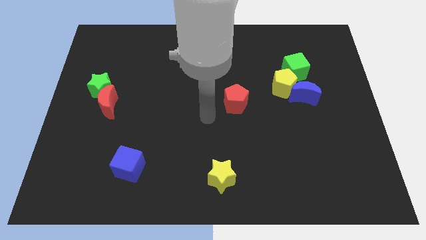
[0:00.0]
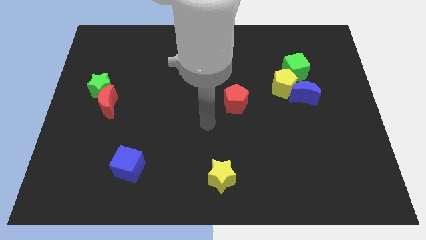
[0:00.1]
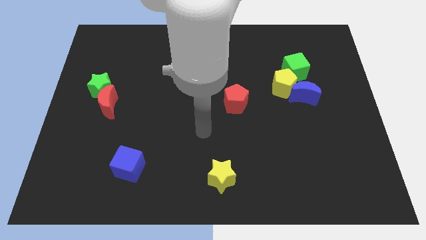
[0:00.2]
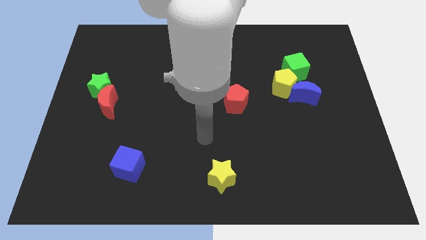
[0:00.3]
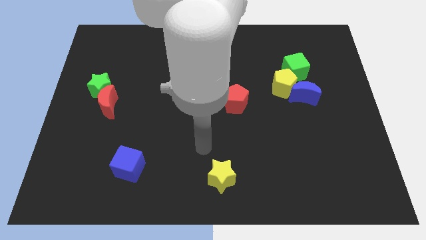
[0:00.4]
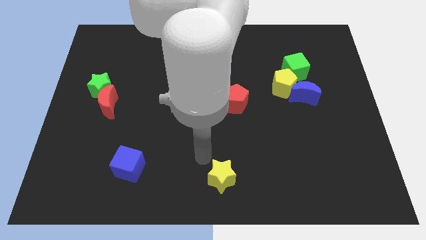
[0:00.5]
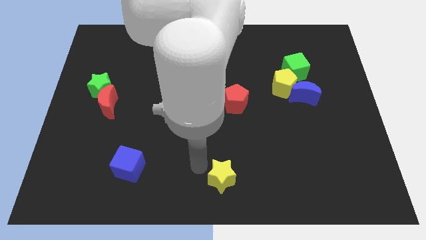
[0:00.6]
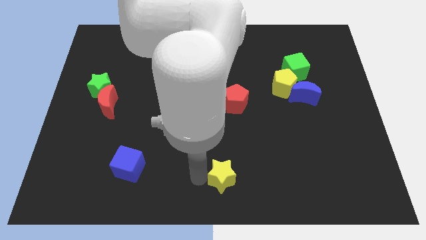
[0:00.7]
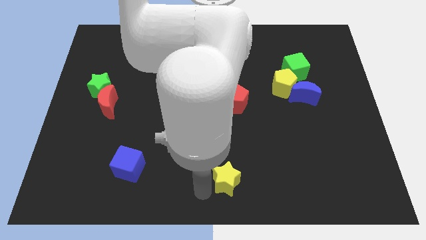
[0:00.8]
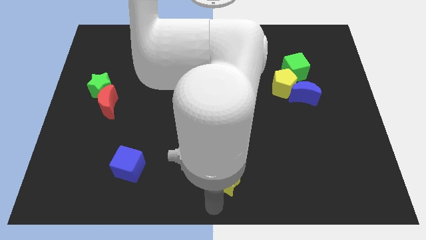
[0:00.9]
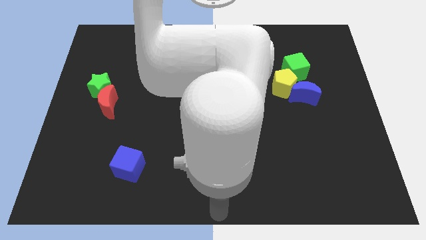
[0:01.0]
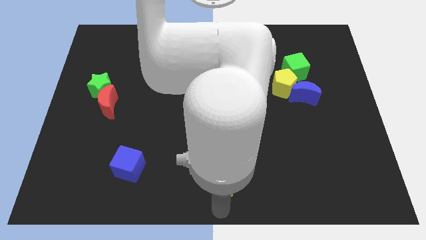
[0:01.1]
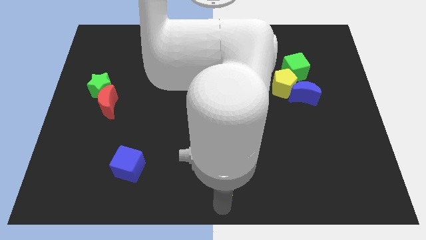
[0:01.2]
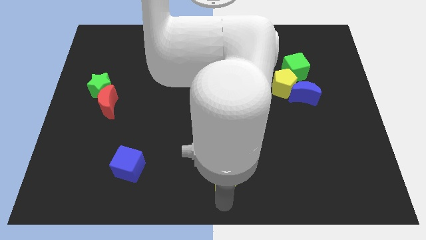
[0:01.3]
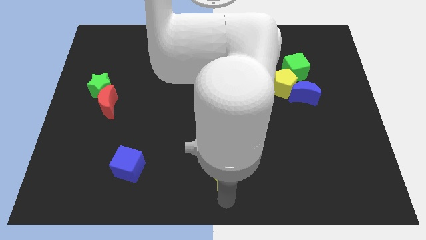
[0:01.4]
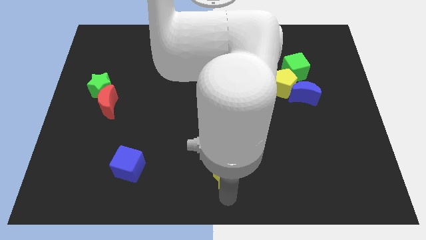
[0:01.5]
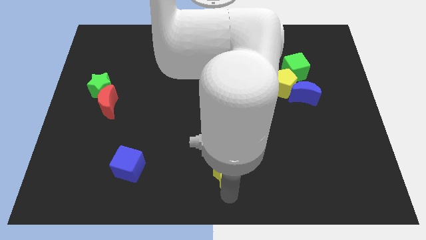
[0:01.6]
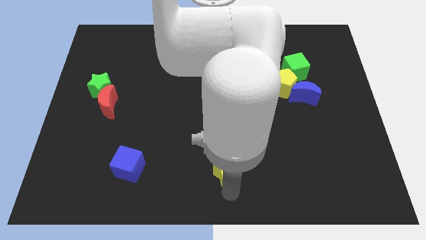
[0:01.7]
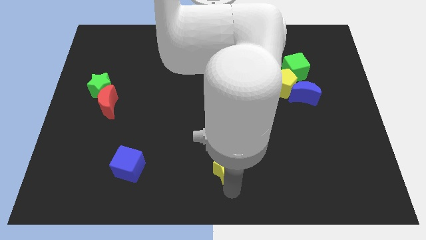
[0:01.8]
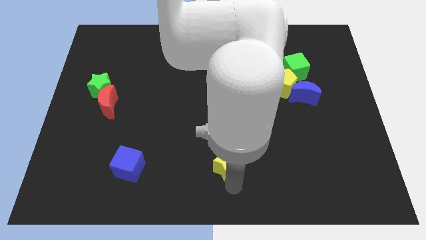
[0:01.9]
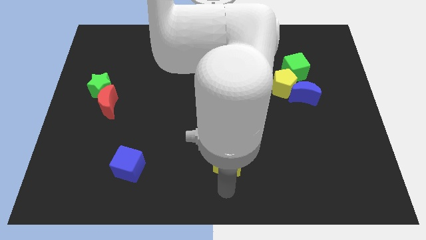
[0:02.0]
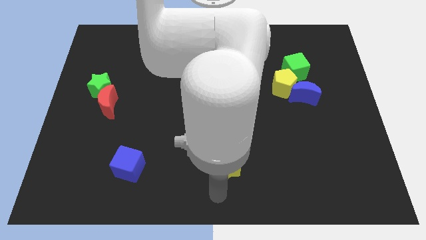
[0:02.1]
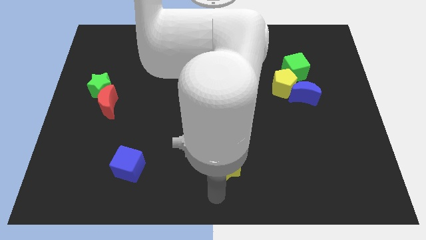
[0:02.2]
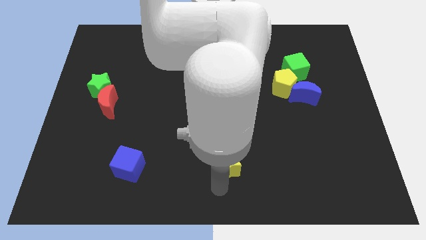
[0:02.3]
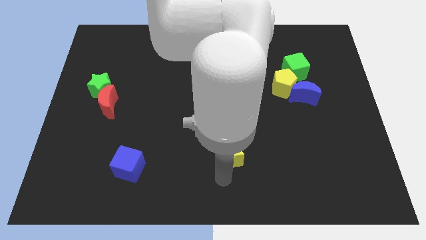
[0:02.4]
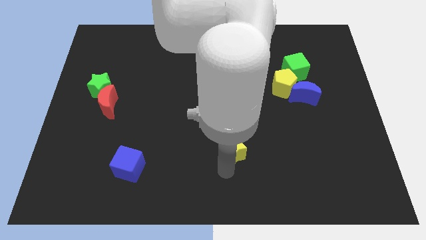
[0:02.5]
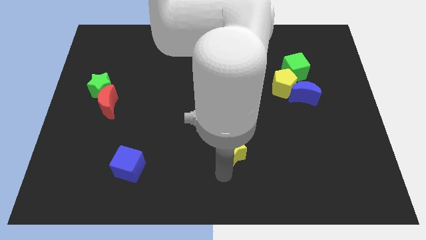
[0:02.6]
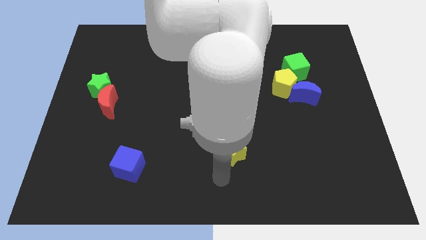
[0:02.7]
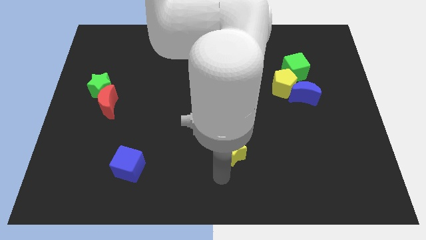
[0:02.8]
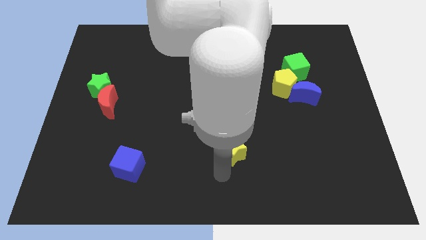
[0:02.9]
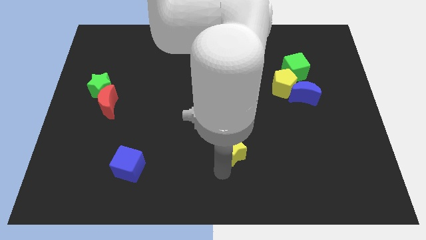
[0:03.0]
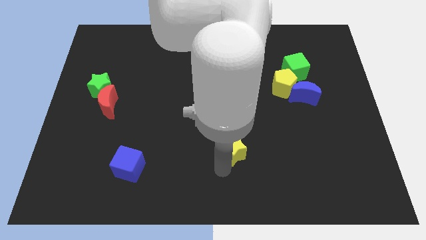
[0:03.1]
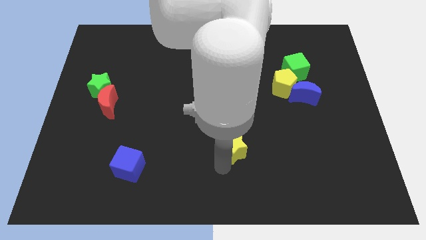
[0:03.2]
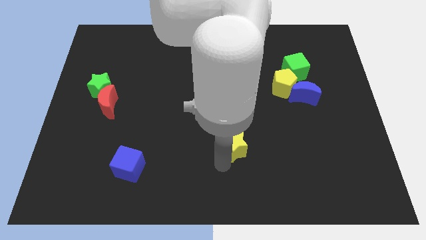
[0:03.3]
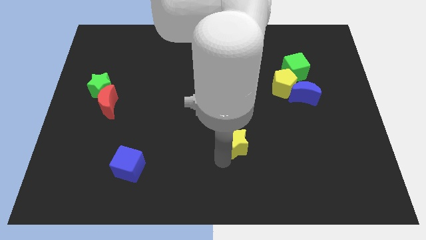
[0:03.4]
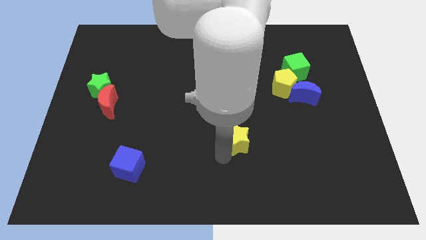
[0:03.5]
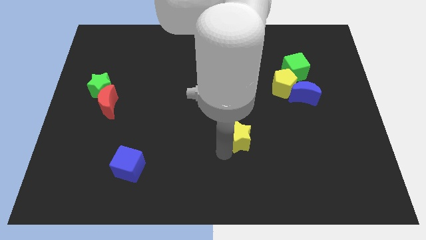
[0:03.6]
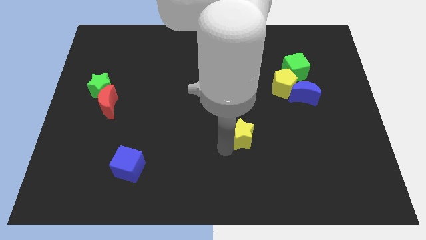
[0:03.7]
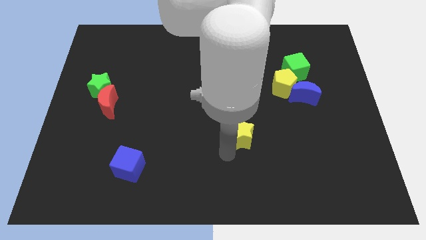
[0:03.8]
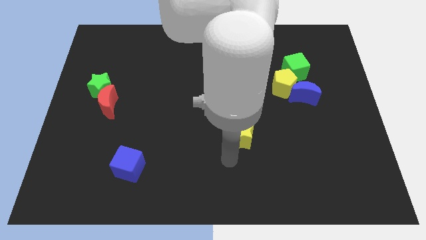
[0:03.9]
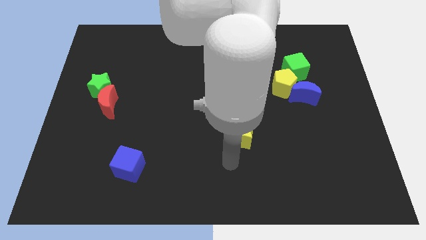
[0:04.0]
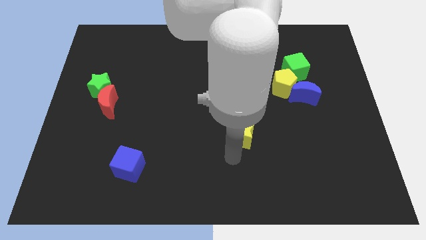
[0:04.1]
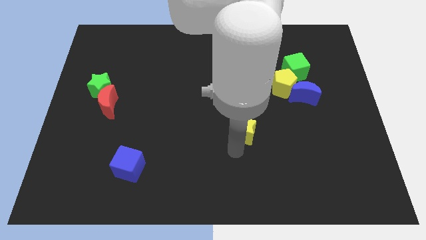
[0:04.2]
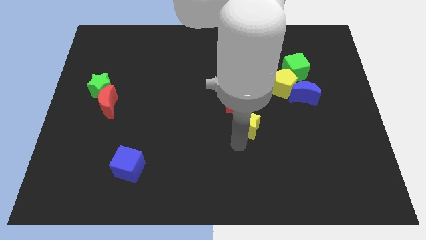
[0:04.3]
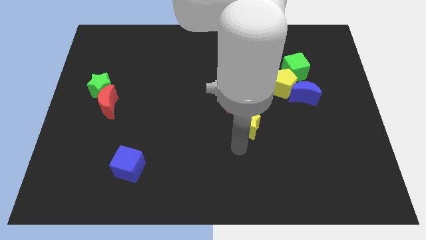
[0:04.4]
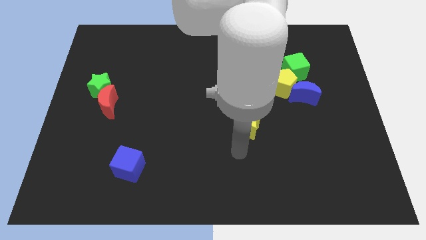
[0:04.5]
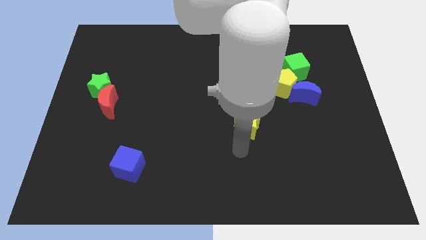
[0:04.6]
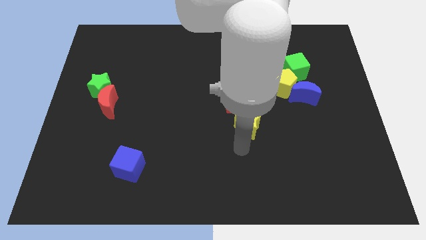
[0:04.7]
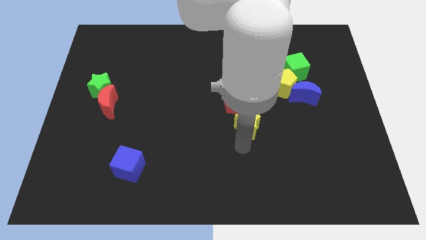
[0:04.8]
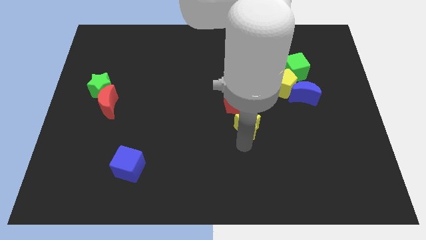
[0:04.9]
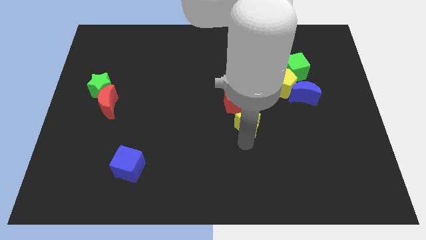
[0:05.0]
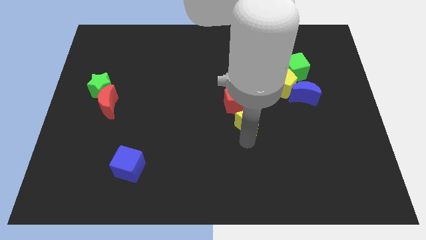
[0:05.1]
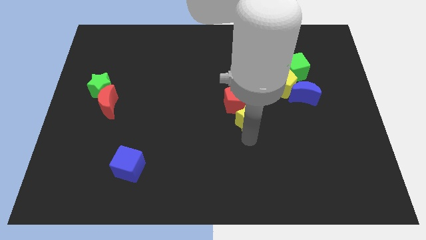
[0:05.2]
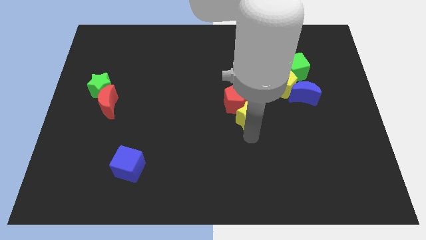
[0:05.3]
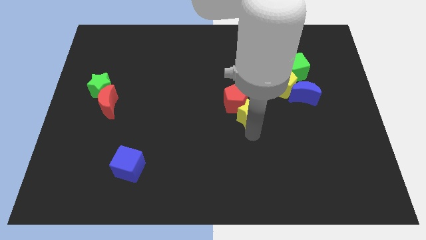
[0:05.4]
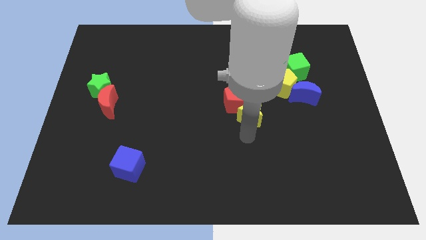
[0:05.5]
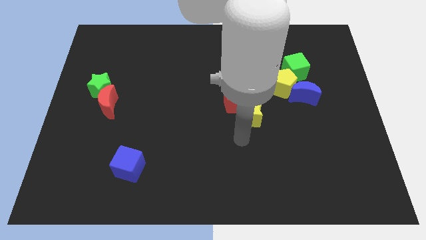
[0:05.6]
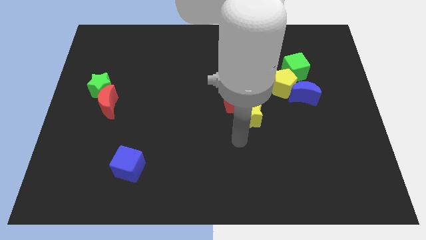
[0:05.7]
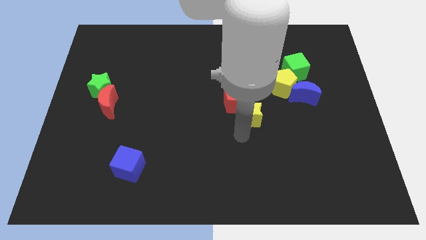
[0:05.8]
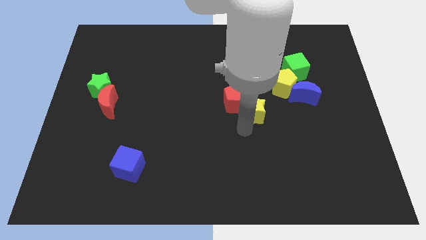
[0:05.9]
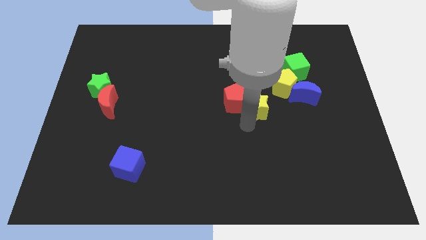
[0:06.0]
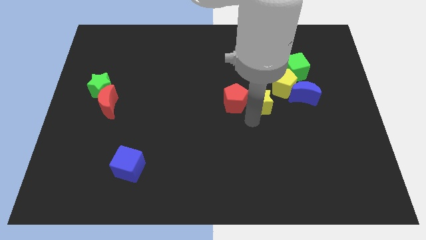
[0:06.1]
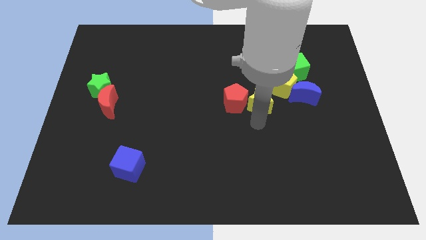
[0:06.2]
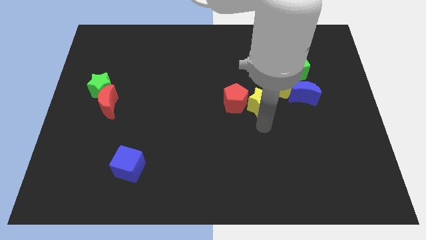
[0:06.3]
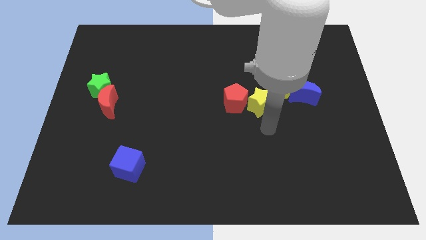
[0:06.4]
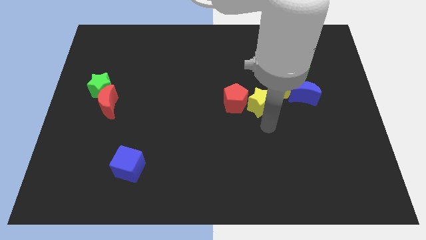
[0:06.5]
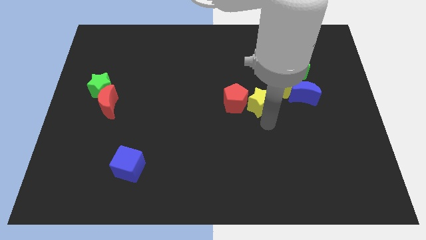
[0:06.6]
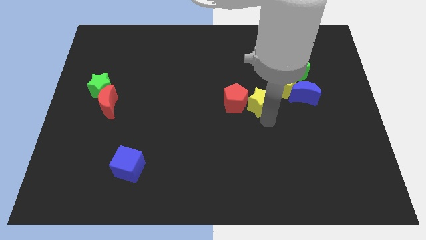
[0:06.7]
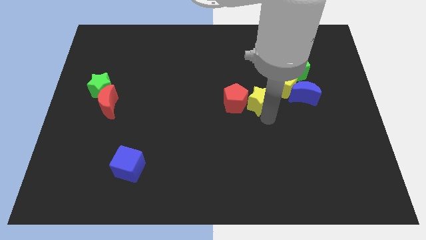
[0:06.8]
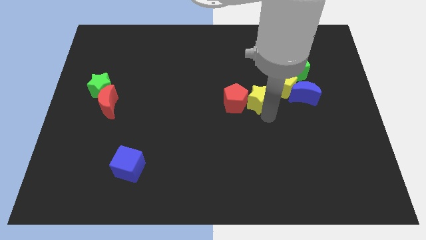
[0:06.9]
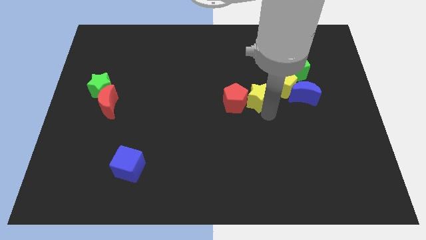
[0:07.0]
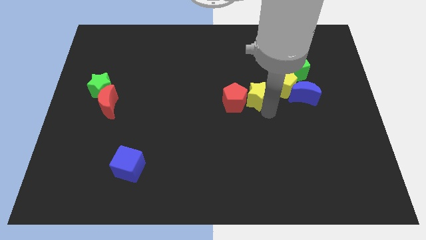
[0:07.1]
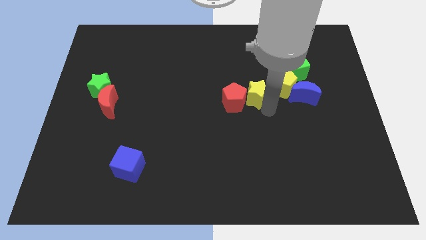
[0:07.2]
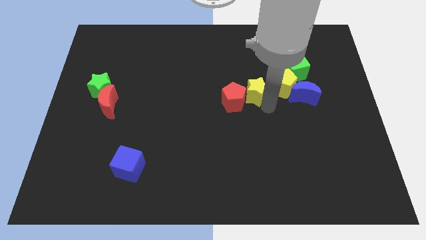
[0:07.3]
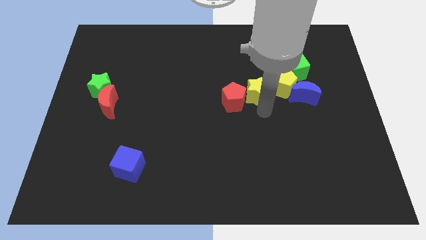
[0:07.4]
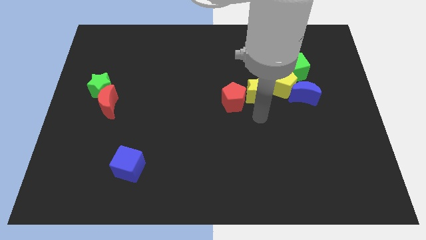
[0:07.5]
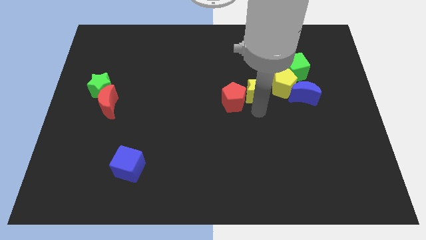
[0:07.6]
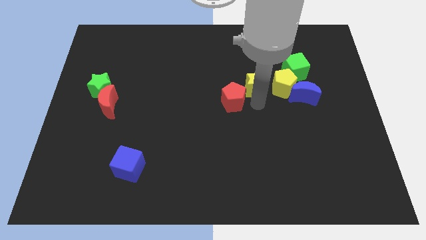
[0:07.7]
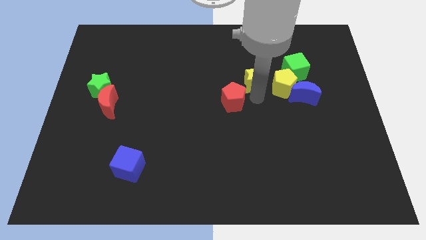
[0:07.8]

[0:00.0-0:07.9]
slide the yellow star just left of the green cube

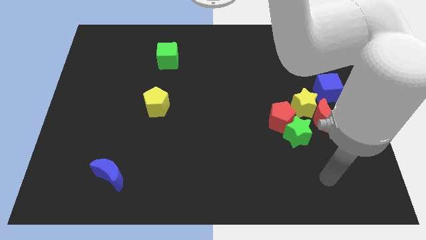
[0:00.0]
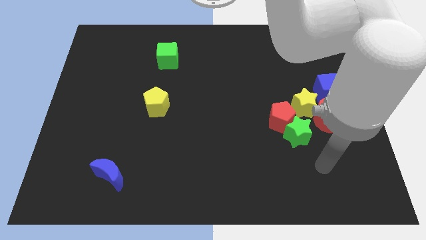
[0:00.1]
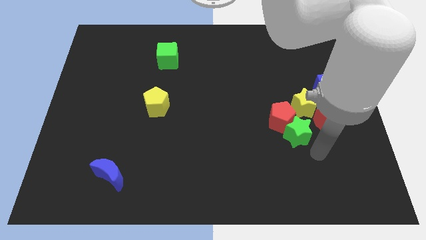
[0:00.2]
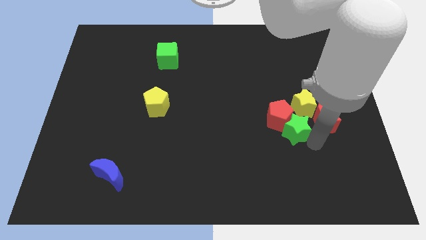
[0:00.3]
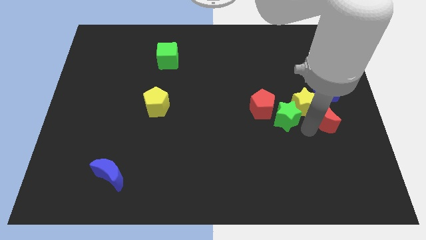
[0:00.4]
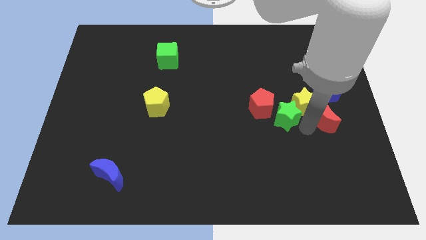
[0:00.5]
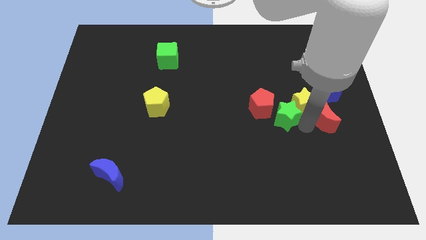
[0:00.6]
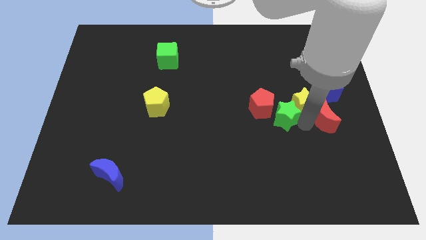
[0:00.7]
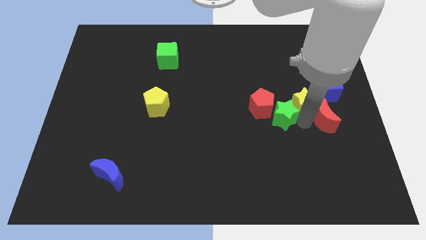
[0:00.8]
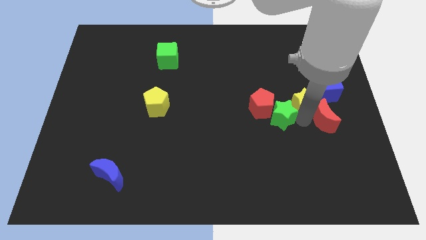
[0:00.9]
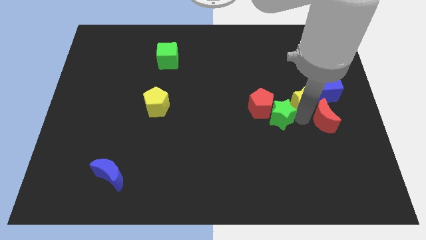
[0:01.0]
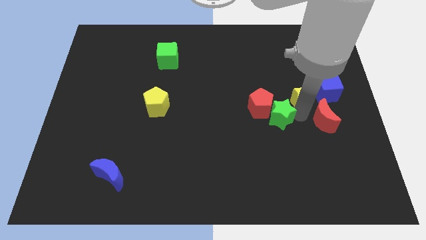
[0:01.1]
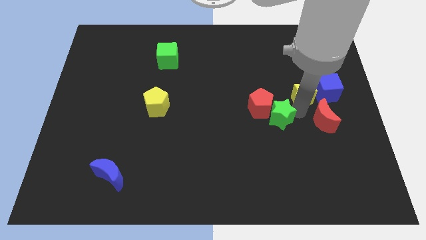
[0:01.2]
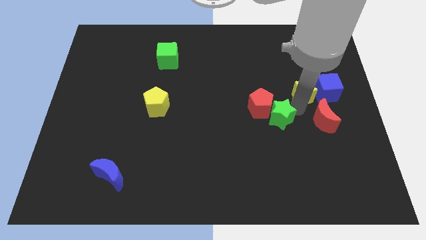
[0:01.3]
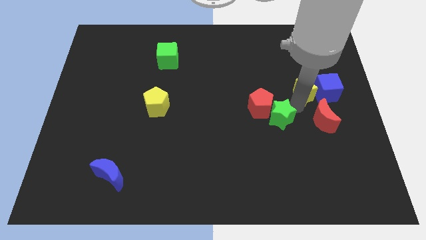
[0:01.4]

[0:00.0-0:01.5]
slide the yellow star diagonally up and to the left of the blue cube
